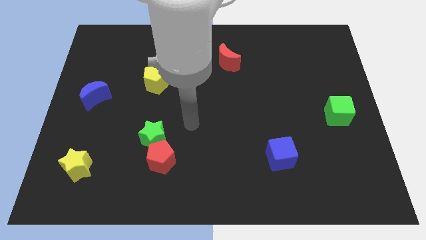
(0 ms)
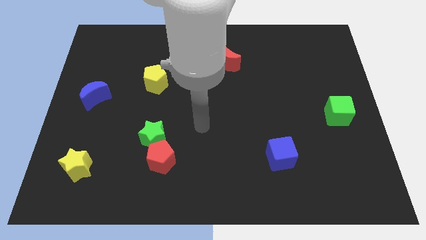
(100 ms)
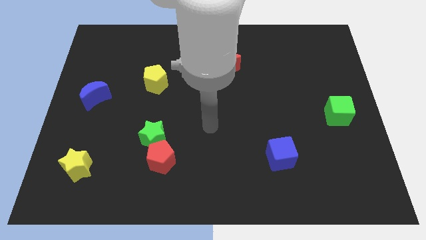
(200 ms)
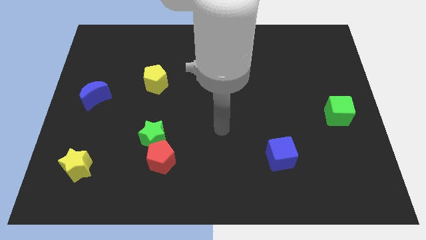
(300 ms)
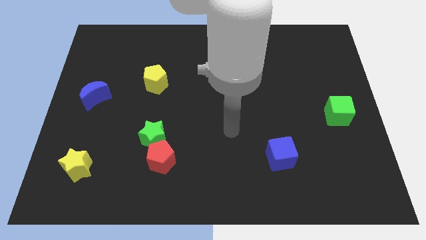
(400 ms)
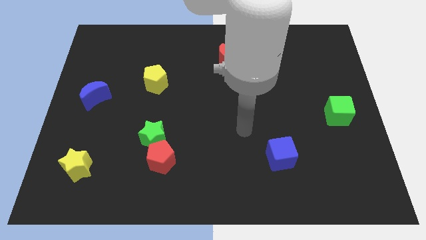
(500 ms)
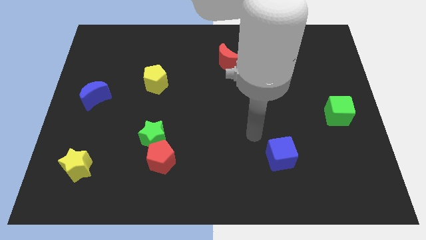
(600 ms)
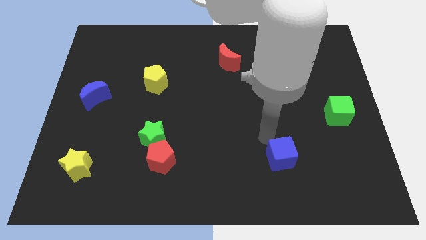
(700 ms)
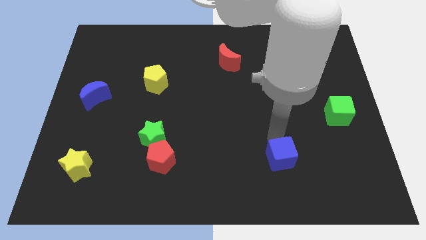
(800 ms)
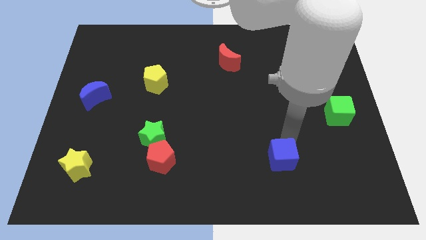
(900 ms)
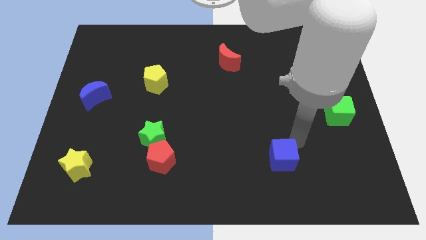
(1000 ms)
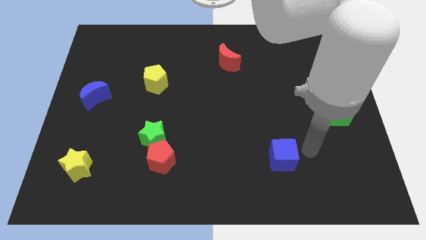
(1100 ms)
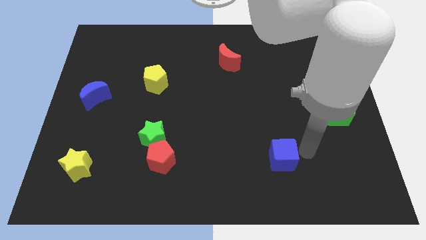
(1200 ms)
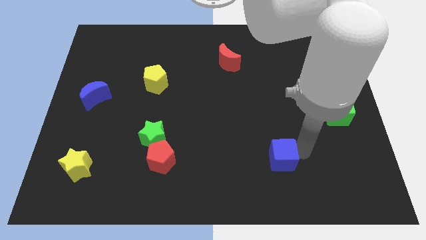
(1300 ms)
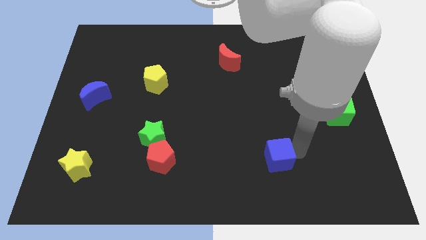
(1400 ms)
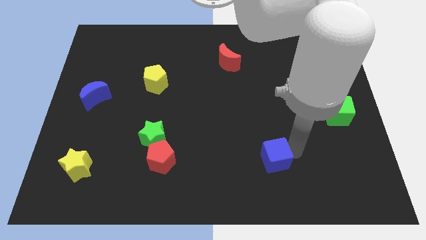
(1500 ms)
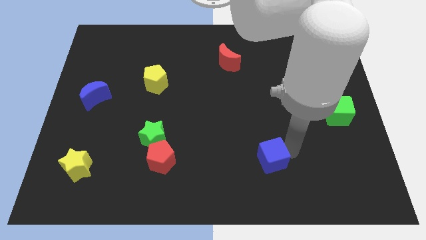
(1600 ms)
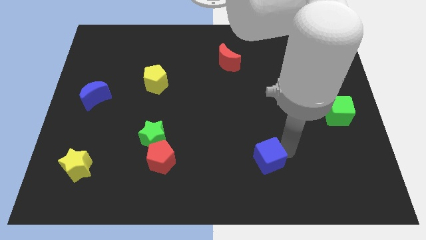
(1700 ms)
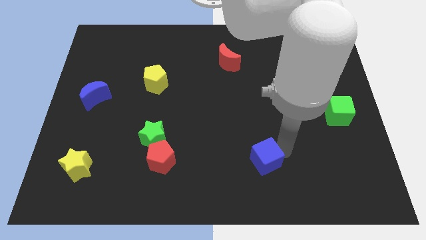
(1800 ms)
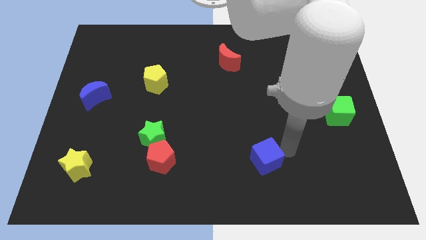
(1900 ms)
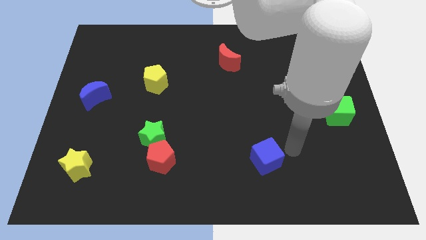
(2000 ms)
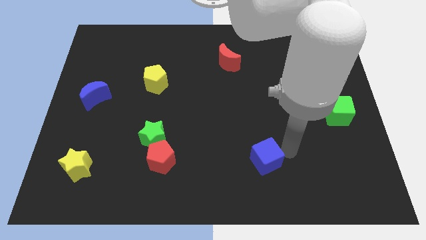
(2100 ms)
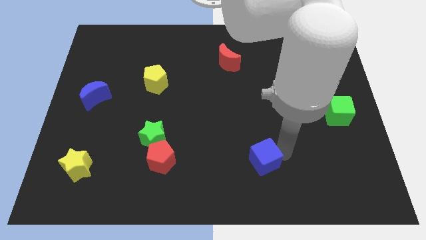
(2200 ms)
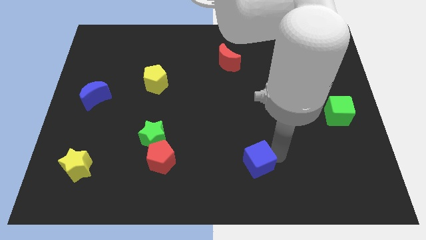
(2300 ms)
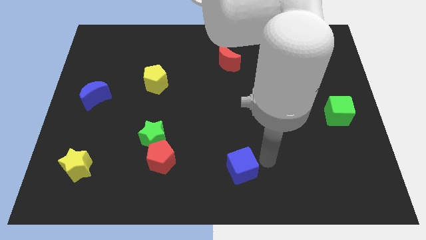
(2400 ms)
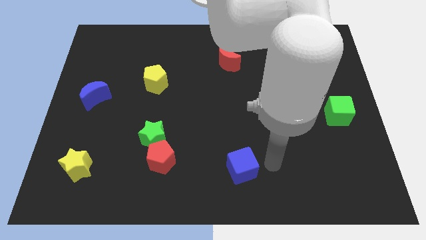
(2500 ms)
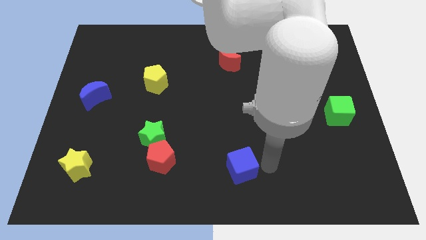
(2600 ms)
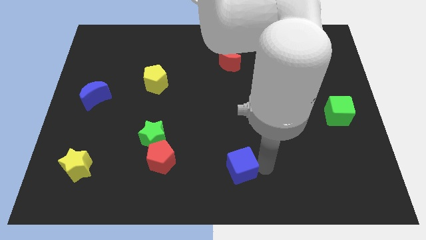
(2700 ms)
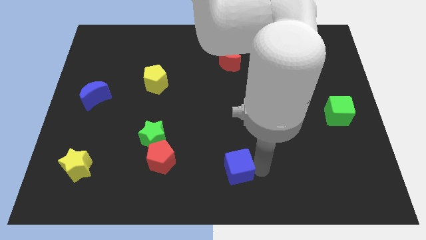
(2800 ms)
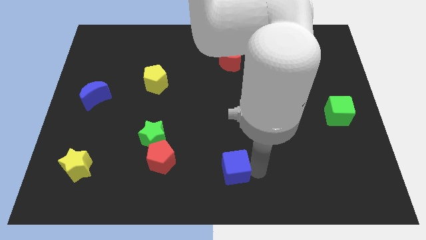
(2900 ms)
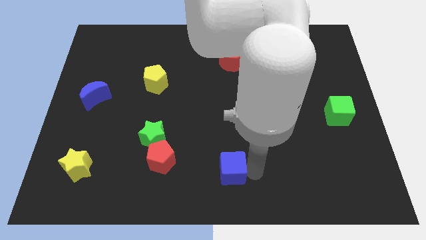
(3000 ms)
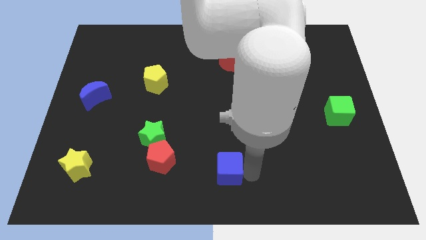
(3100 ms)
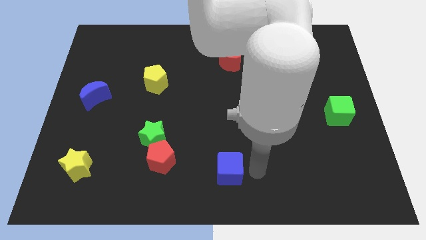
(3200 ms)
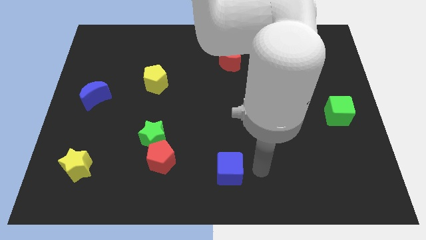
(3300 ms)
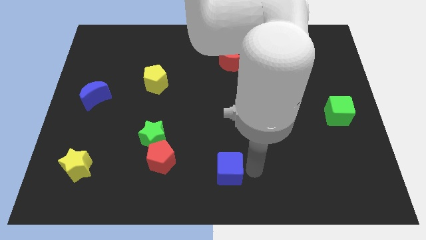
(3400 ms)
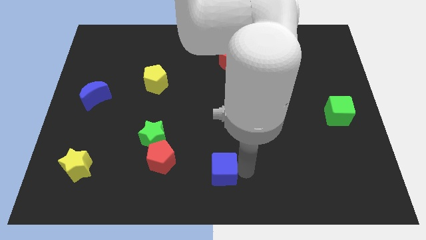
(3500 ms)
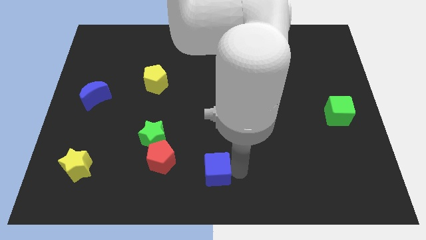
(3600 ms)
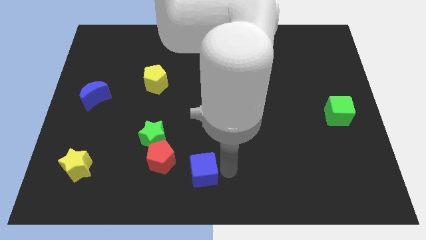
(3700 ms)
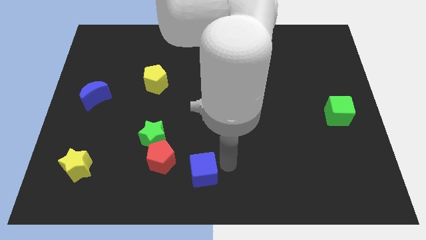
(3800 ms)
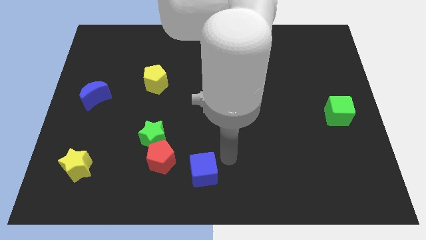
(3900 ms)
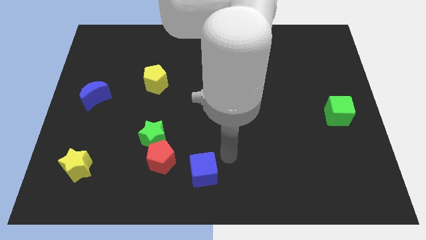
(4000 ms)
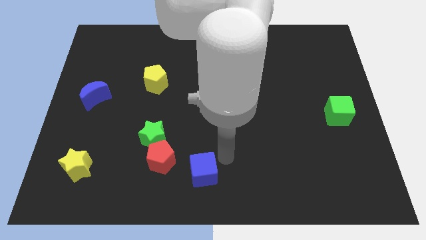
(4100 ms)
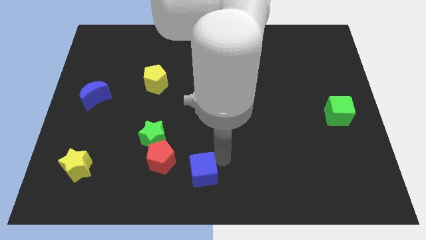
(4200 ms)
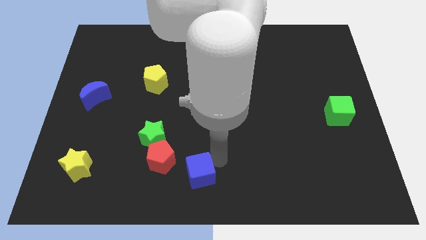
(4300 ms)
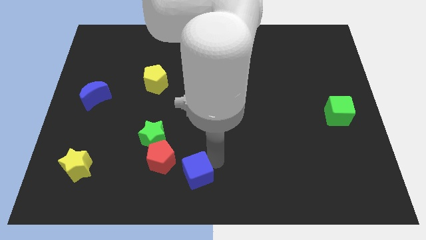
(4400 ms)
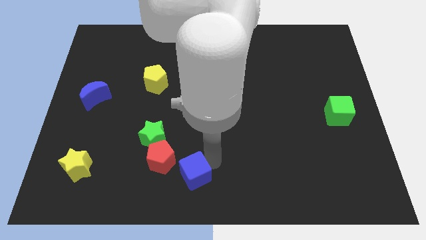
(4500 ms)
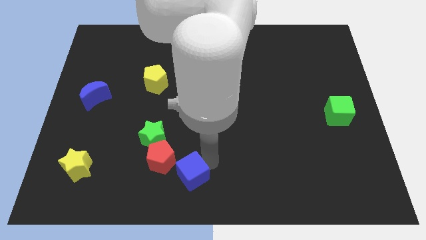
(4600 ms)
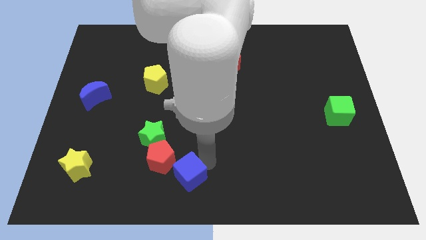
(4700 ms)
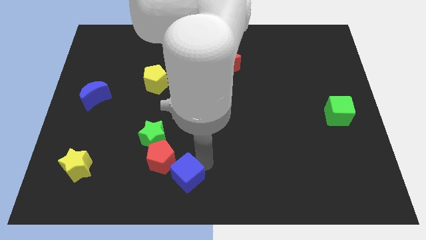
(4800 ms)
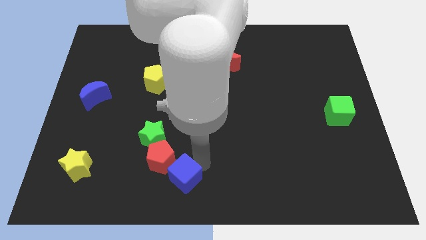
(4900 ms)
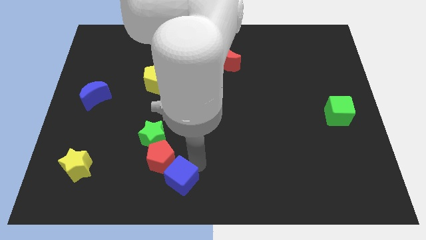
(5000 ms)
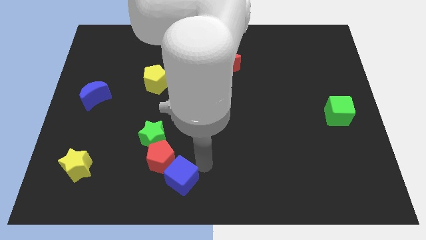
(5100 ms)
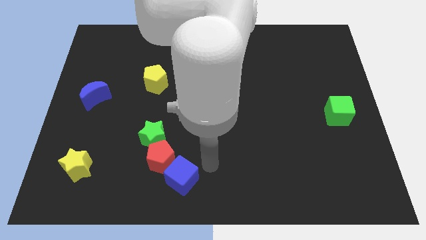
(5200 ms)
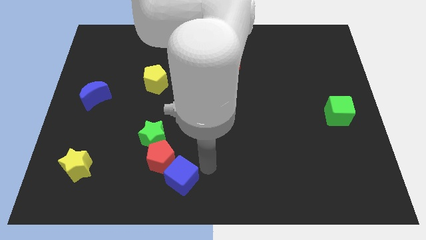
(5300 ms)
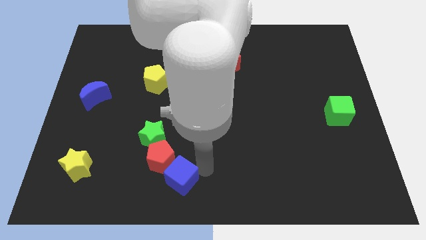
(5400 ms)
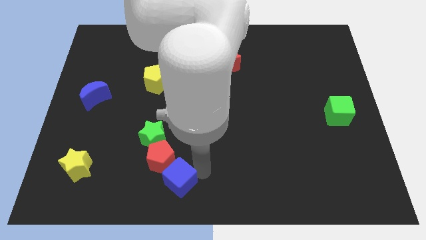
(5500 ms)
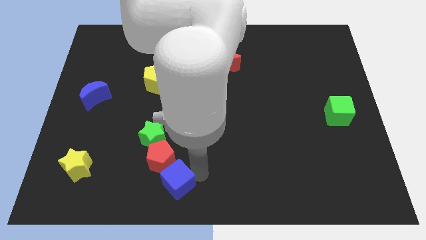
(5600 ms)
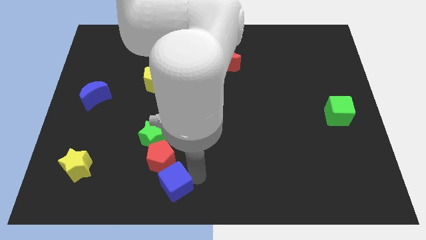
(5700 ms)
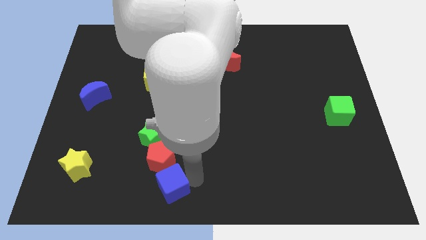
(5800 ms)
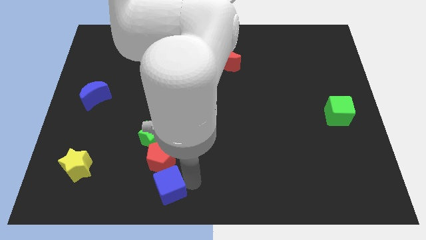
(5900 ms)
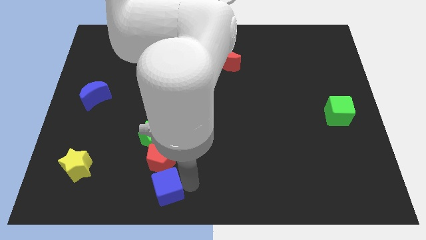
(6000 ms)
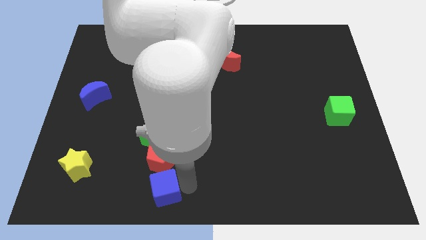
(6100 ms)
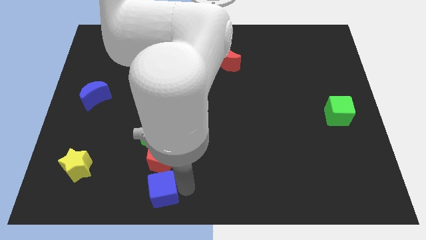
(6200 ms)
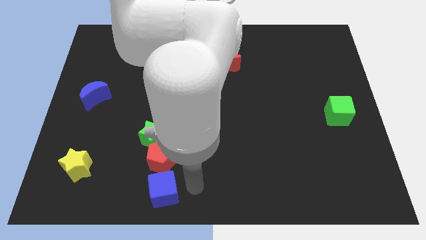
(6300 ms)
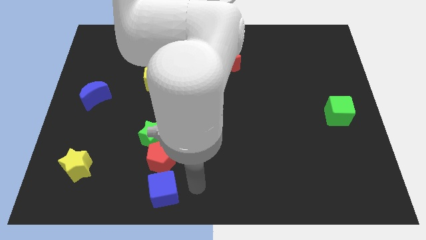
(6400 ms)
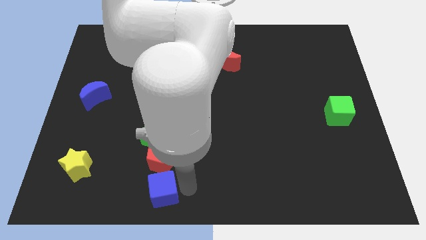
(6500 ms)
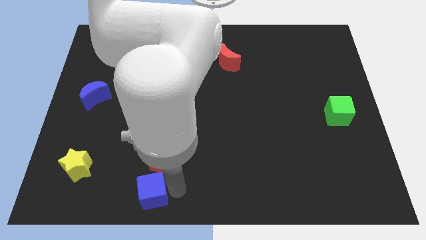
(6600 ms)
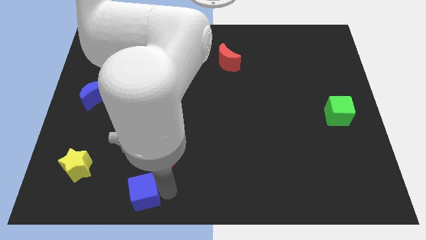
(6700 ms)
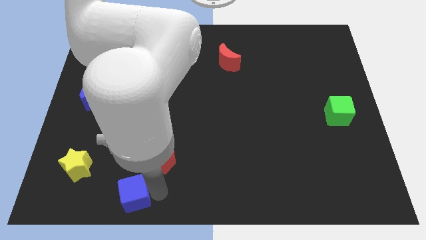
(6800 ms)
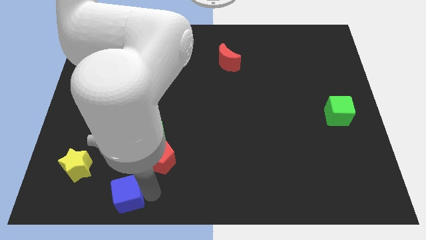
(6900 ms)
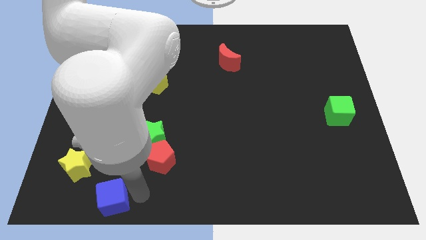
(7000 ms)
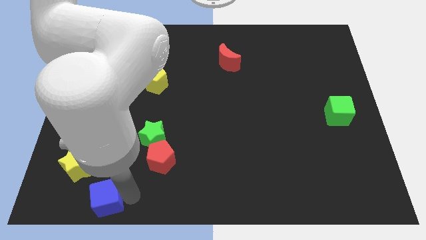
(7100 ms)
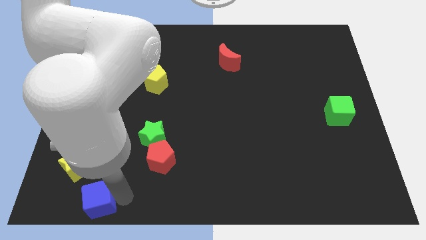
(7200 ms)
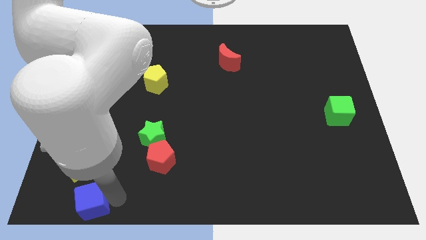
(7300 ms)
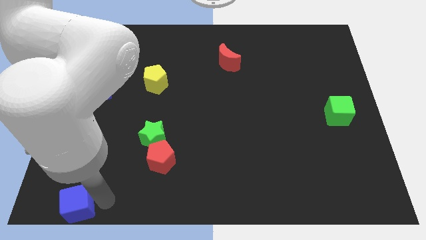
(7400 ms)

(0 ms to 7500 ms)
push the blue cube to the lower left corner
